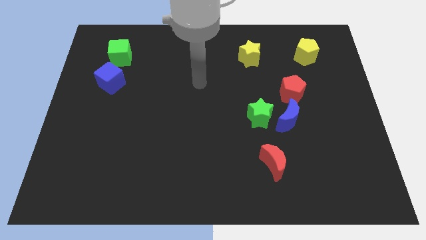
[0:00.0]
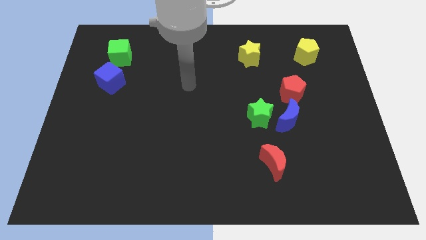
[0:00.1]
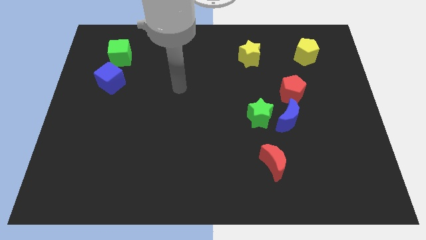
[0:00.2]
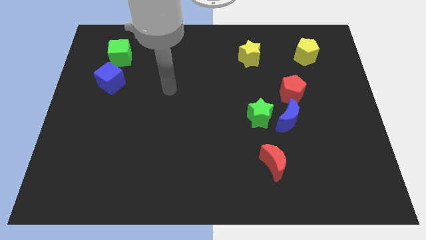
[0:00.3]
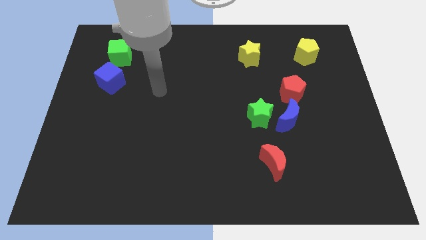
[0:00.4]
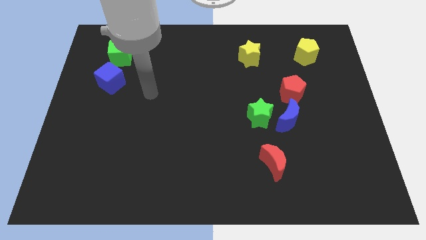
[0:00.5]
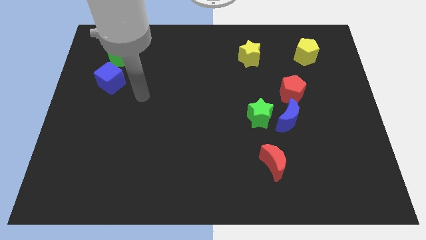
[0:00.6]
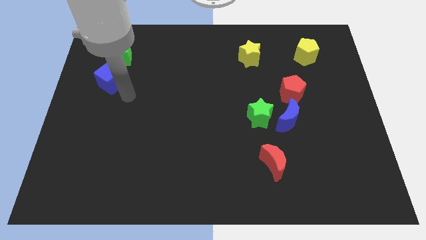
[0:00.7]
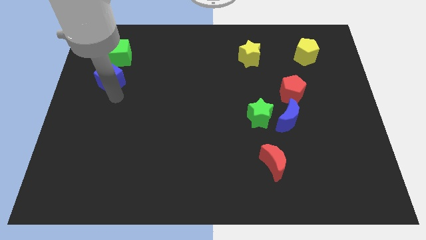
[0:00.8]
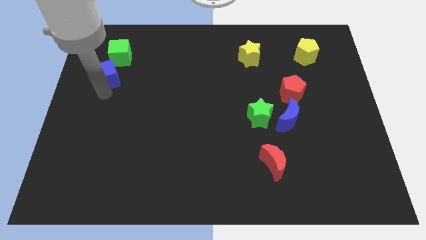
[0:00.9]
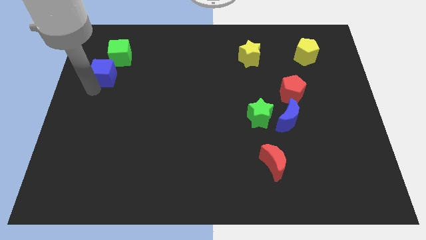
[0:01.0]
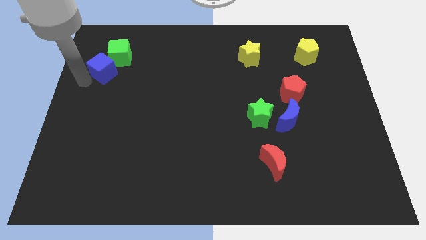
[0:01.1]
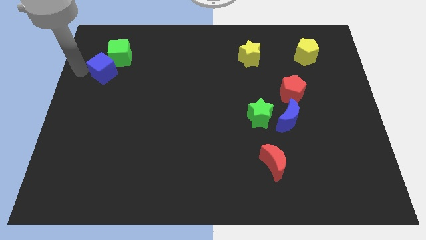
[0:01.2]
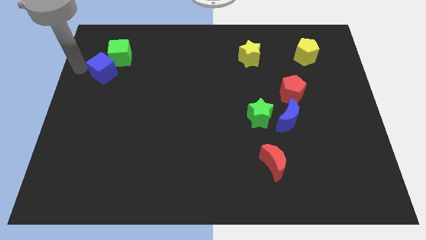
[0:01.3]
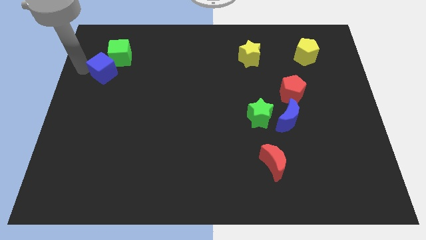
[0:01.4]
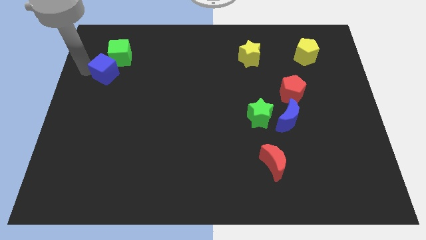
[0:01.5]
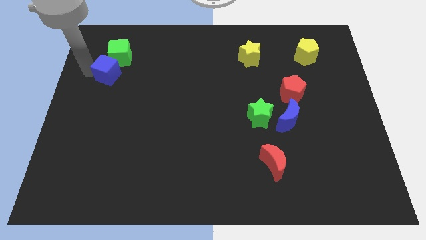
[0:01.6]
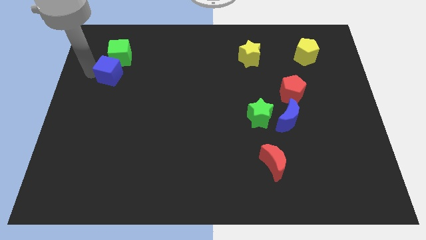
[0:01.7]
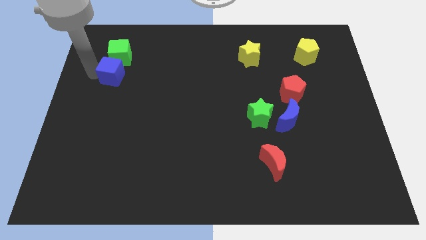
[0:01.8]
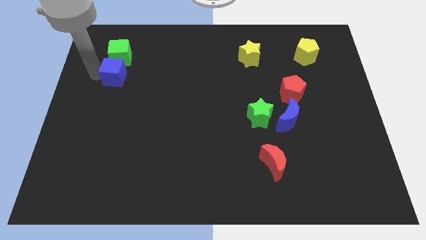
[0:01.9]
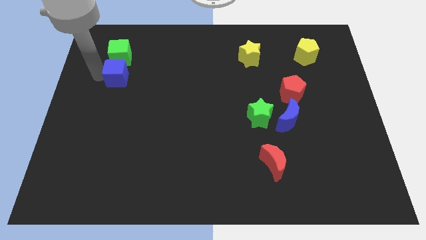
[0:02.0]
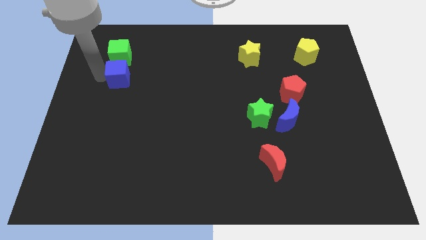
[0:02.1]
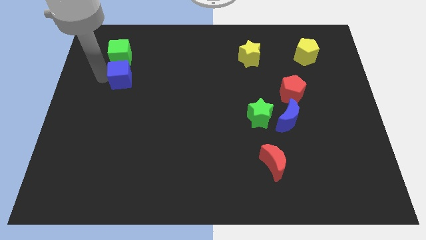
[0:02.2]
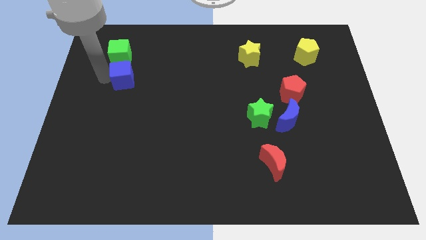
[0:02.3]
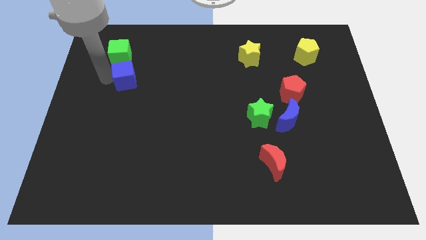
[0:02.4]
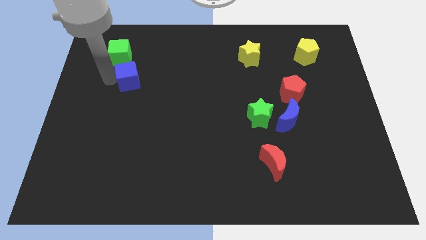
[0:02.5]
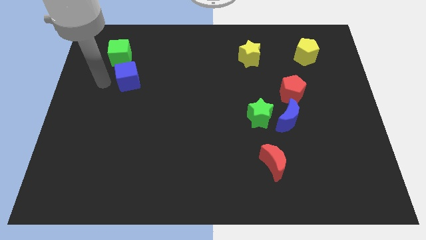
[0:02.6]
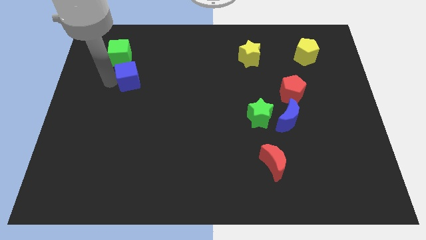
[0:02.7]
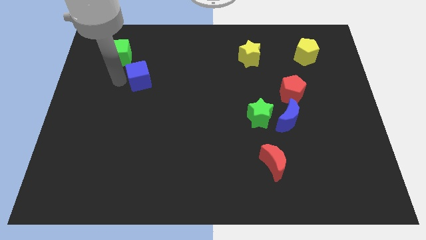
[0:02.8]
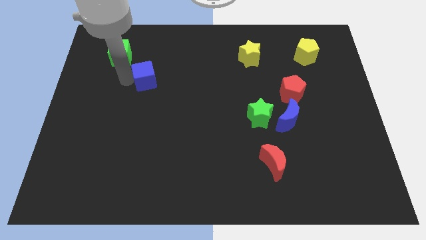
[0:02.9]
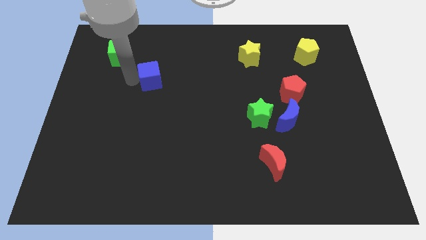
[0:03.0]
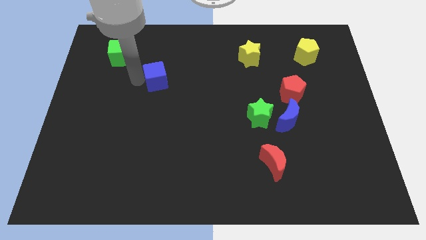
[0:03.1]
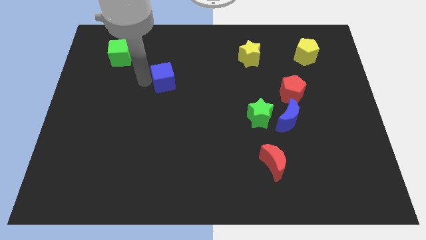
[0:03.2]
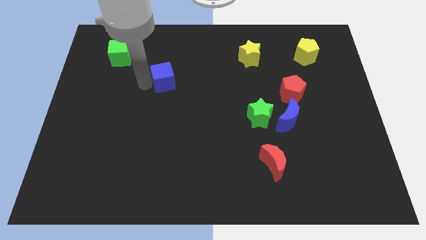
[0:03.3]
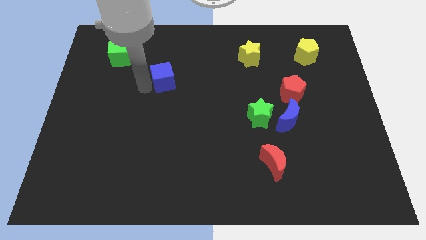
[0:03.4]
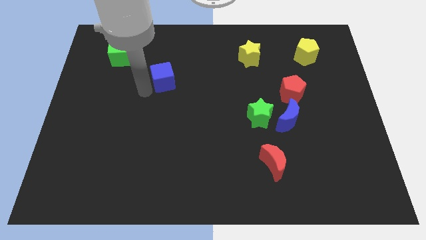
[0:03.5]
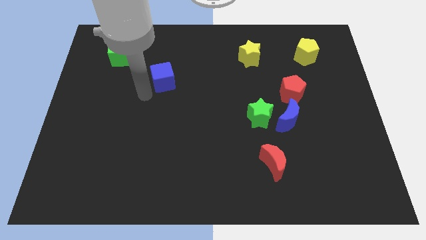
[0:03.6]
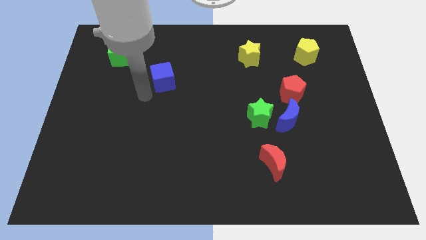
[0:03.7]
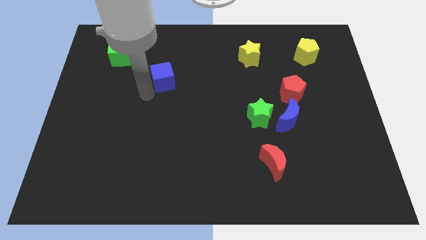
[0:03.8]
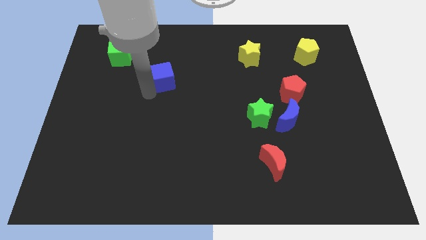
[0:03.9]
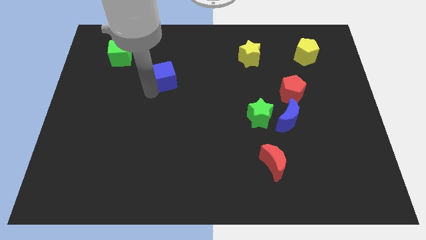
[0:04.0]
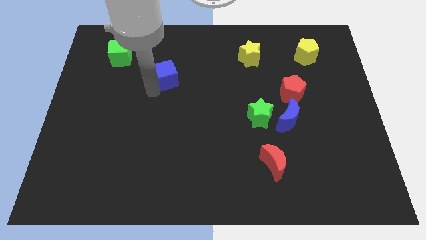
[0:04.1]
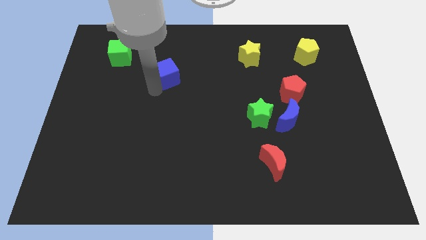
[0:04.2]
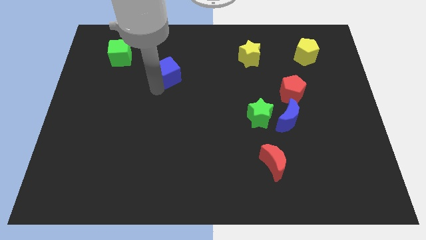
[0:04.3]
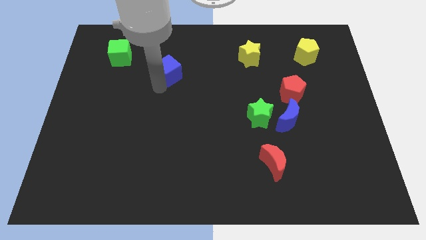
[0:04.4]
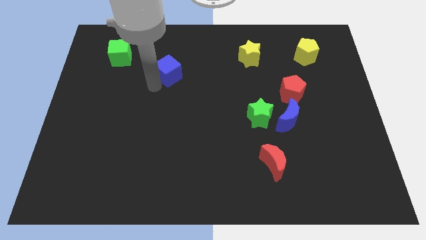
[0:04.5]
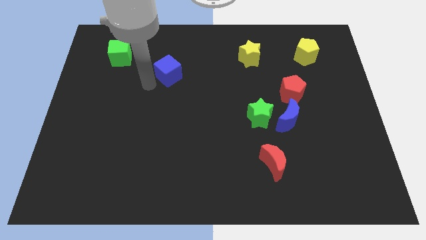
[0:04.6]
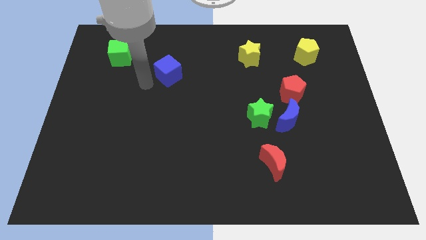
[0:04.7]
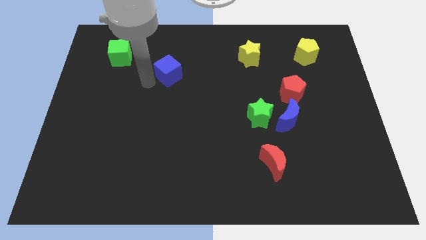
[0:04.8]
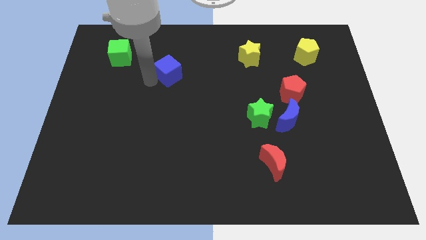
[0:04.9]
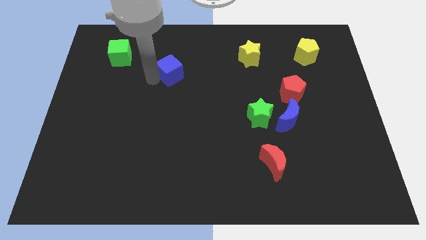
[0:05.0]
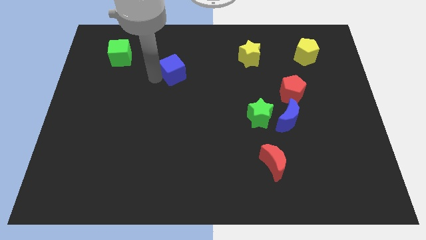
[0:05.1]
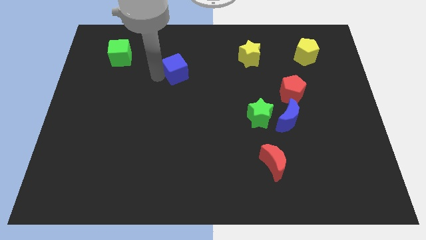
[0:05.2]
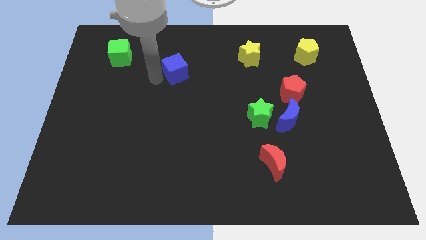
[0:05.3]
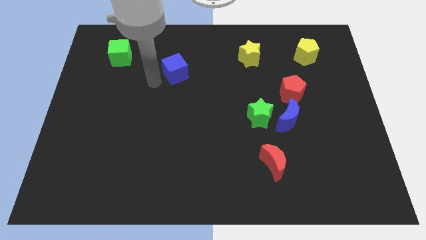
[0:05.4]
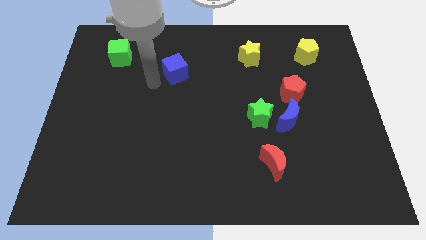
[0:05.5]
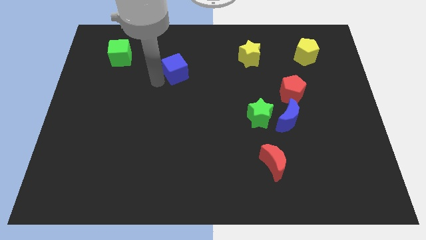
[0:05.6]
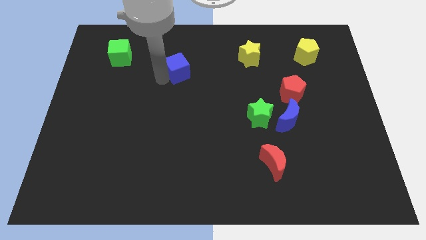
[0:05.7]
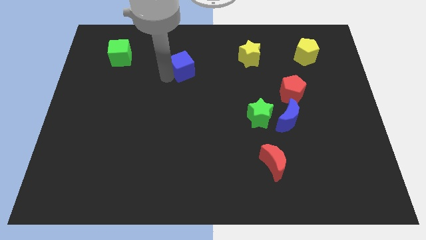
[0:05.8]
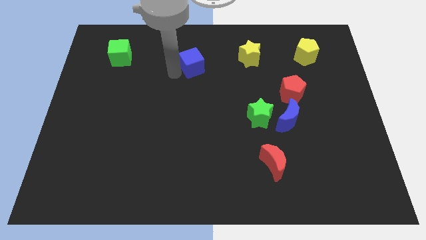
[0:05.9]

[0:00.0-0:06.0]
push the blue cube to the left side of the yellow star
